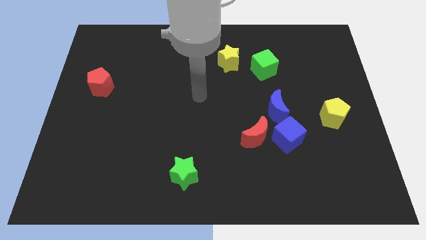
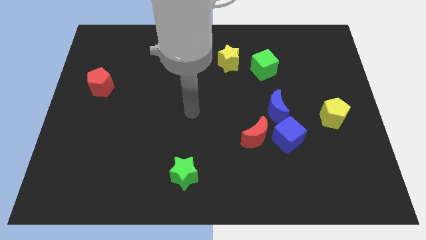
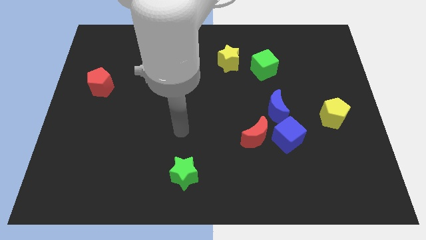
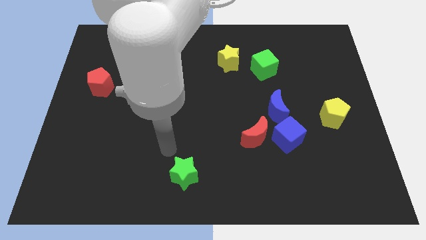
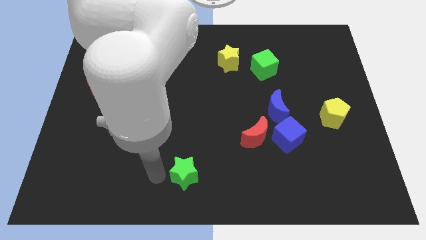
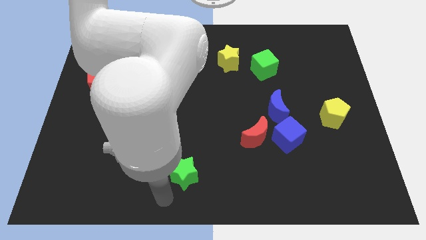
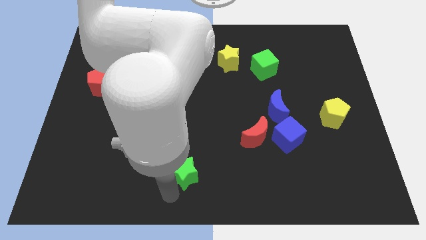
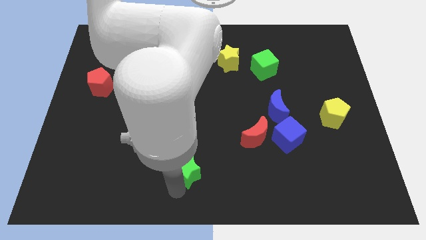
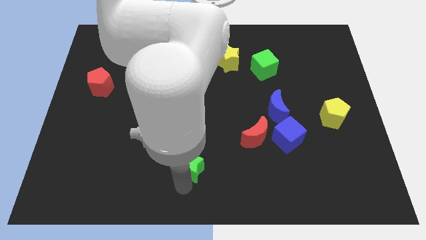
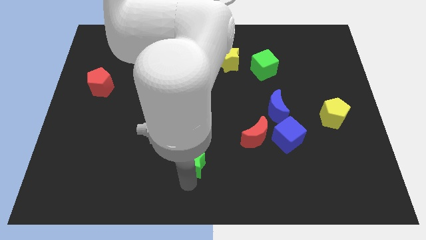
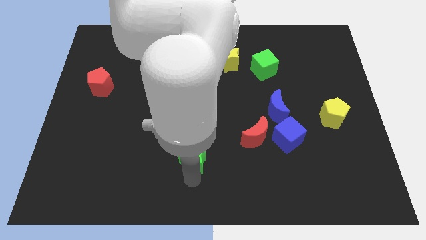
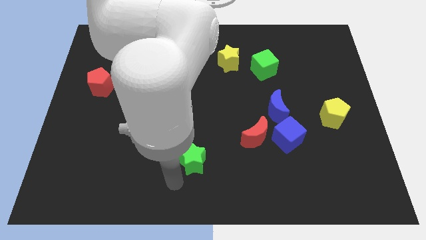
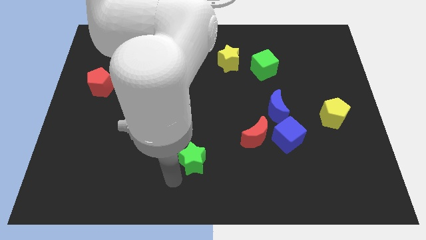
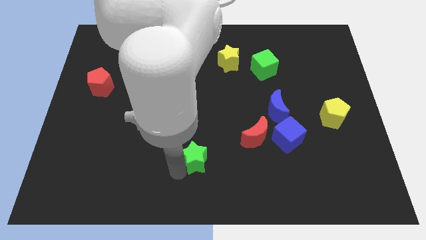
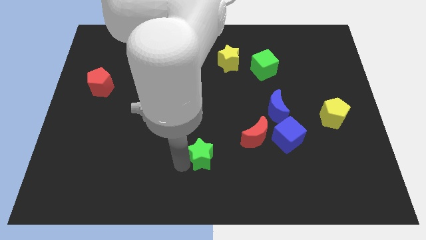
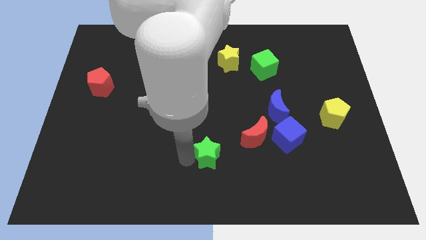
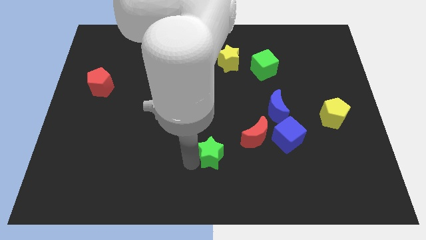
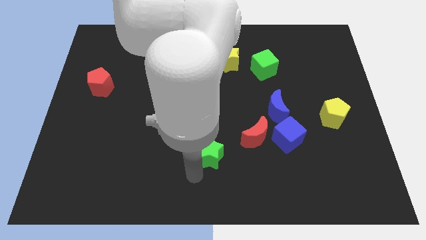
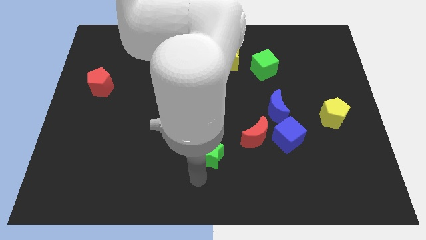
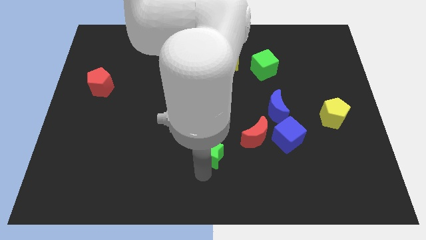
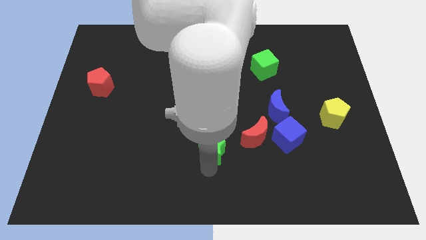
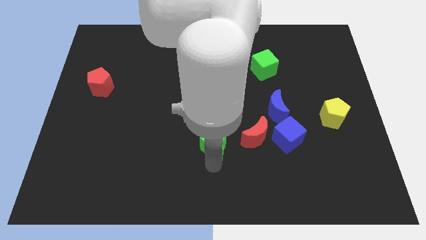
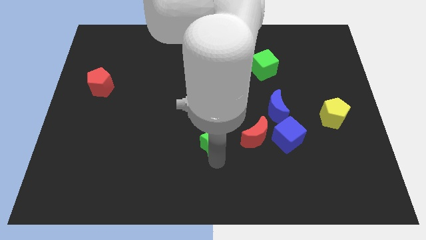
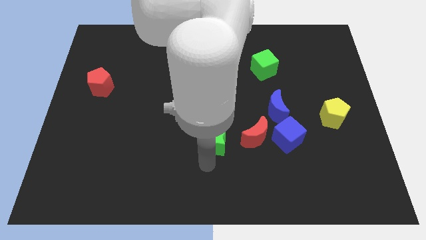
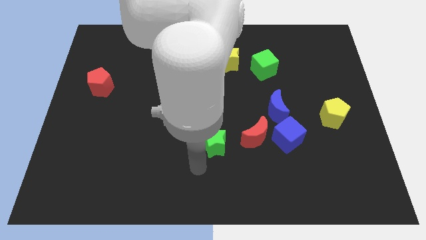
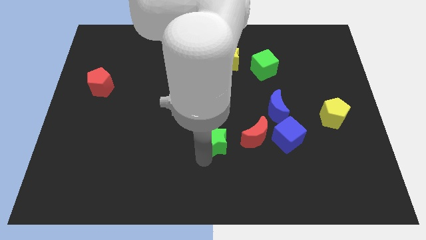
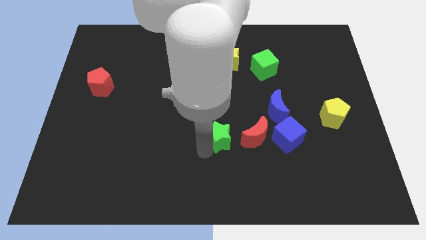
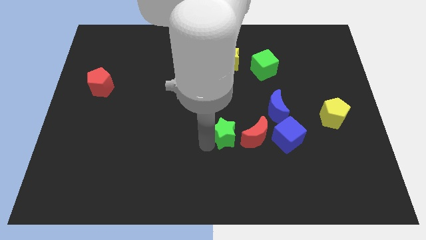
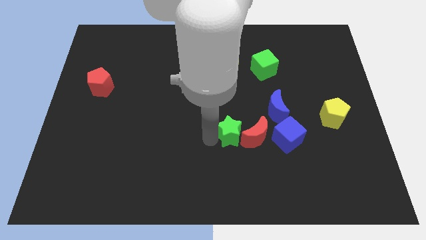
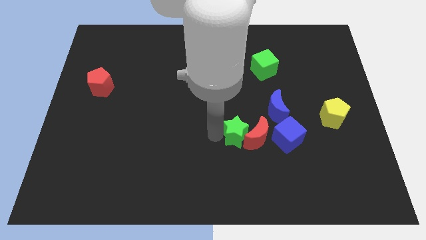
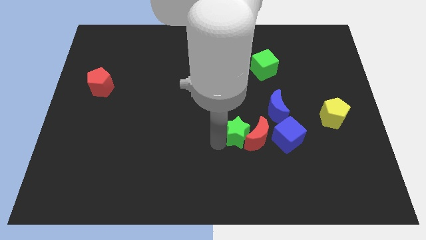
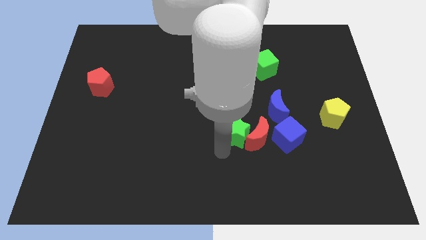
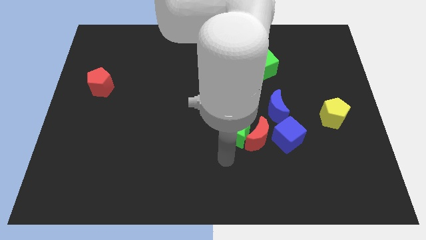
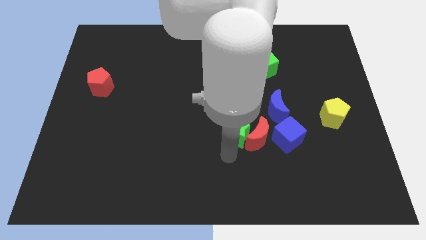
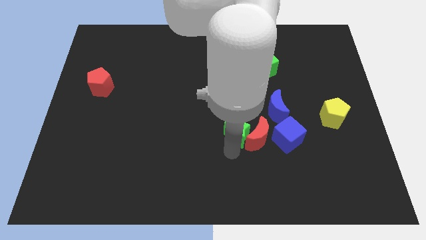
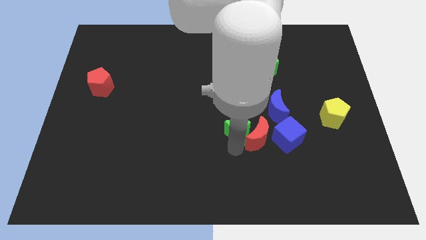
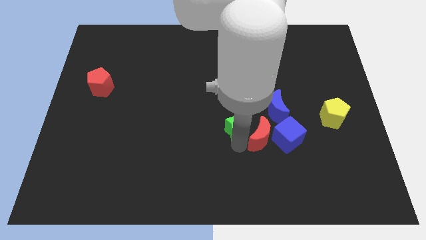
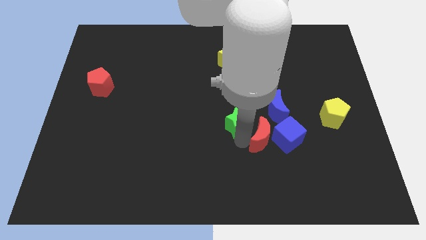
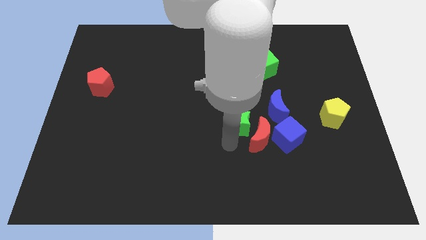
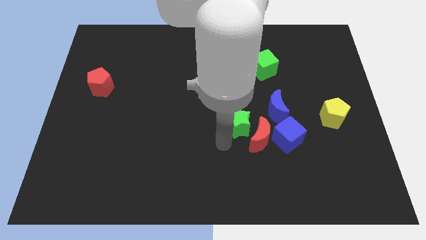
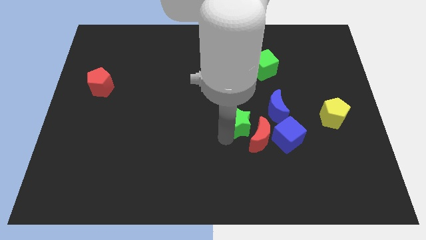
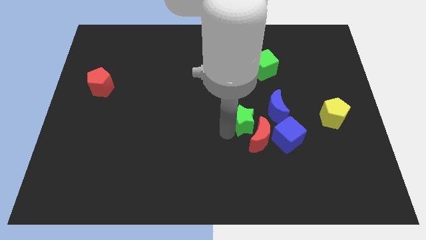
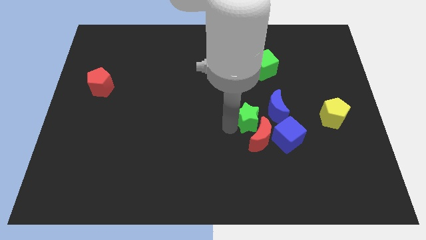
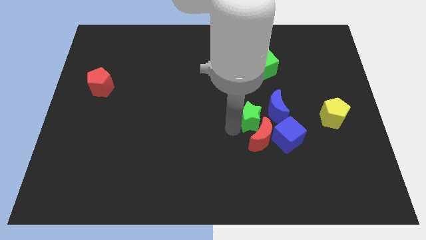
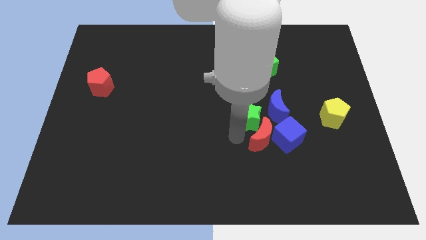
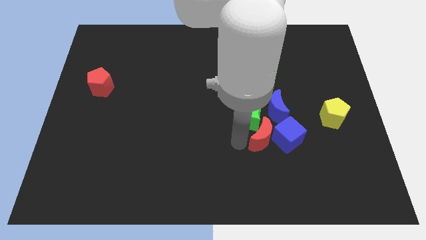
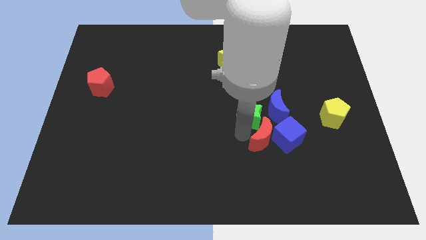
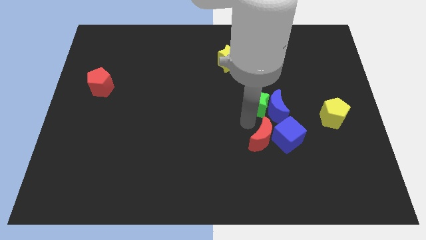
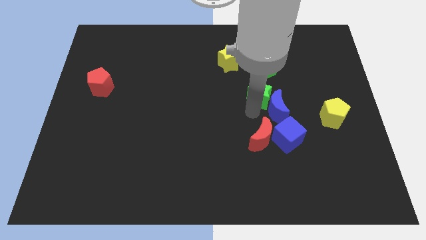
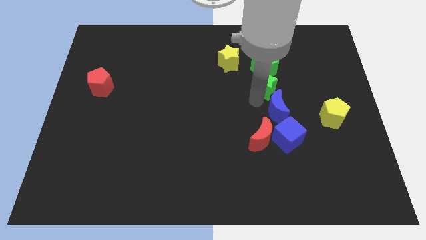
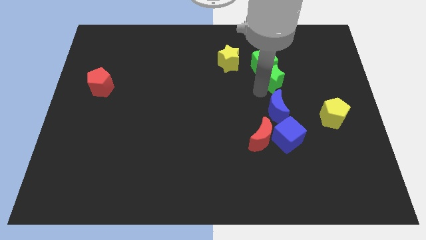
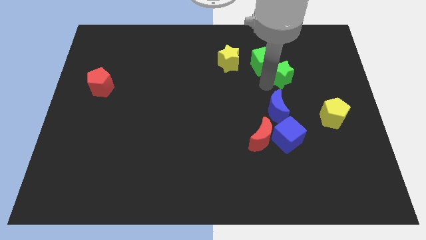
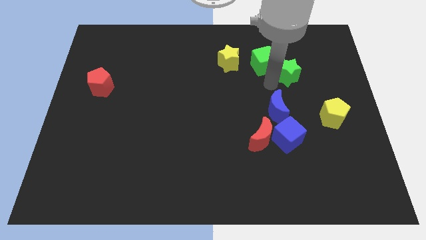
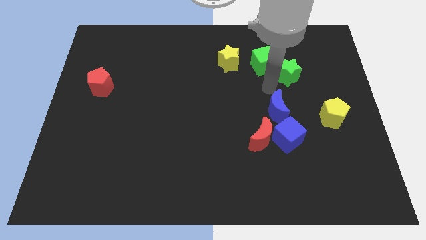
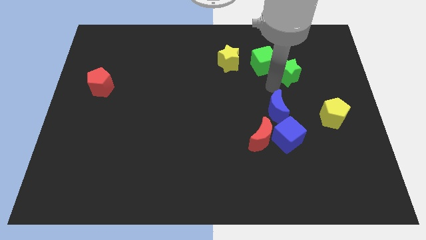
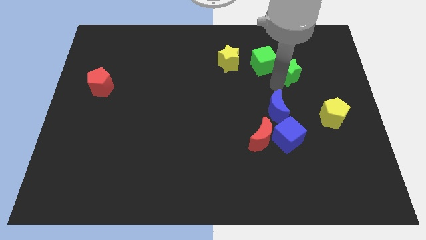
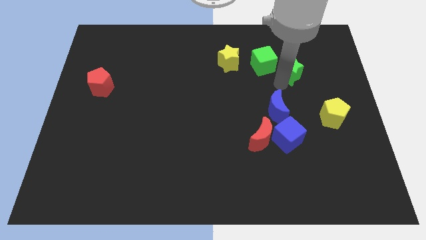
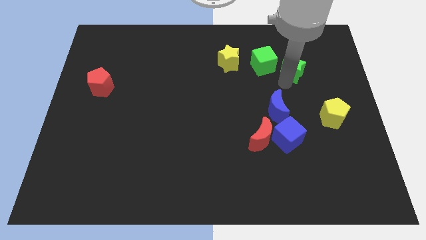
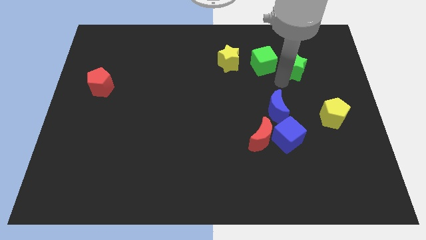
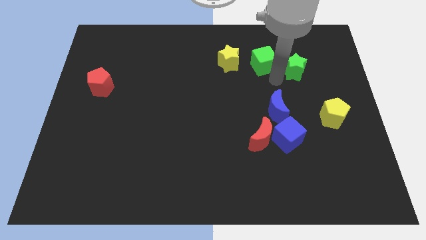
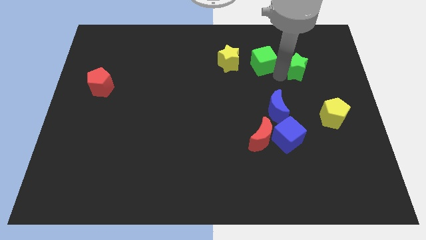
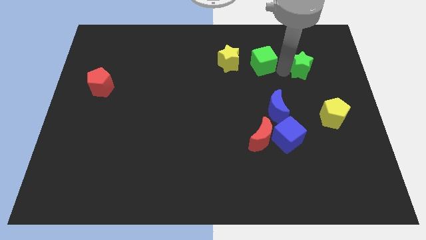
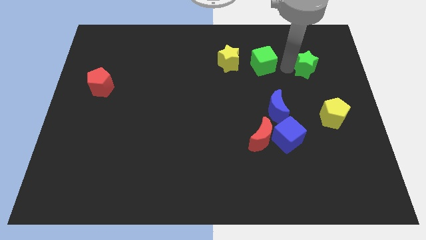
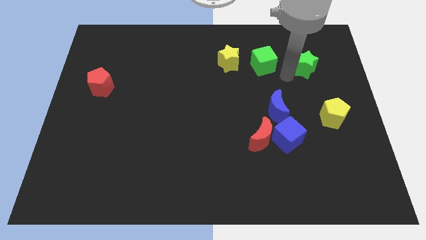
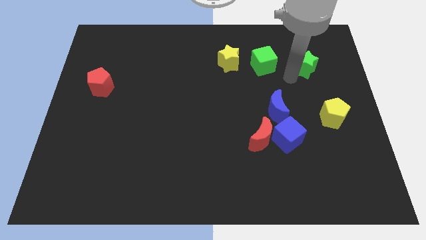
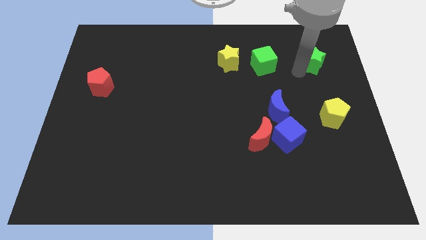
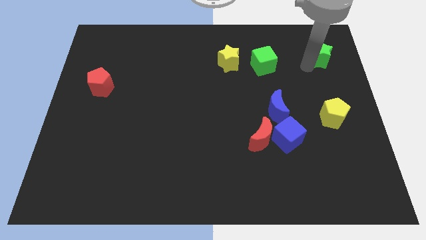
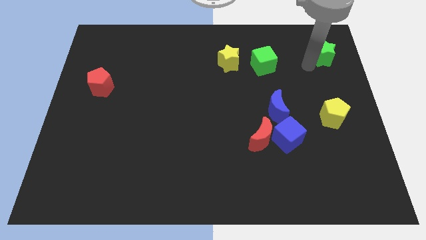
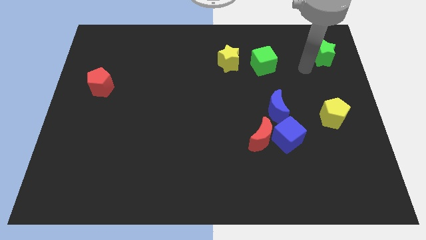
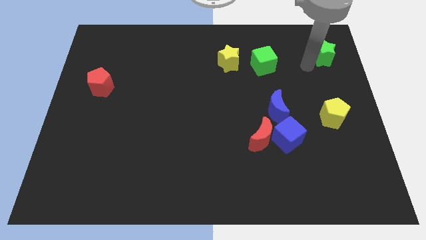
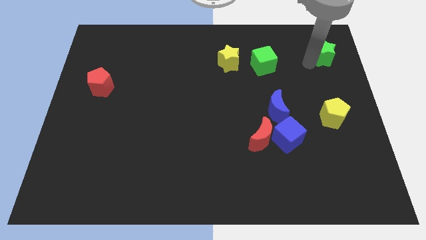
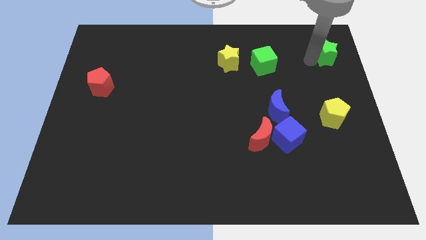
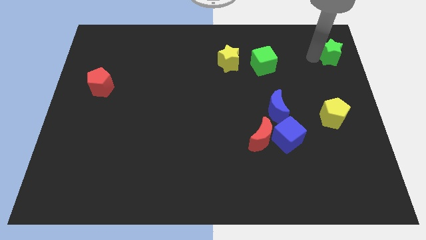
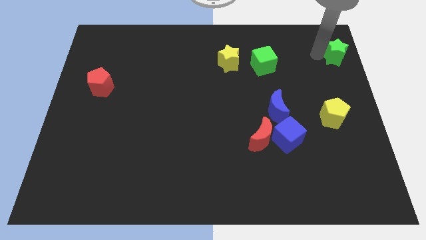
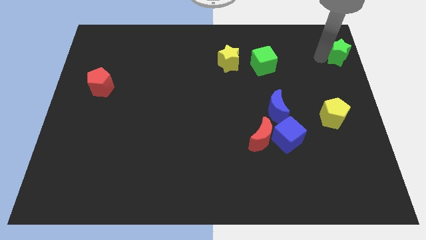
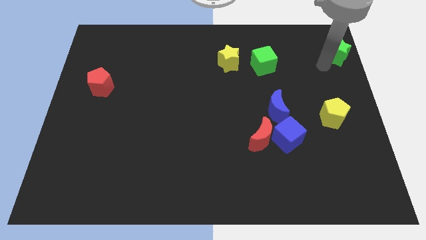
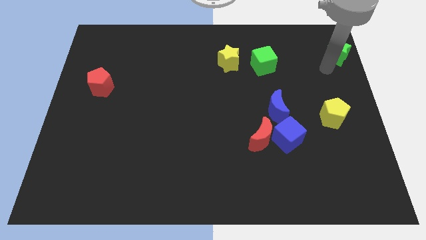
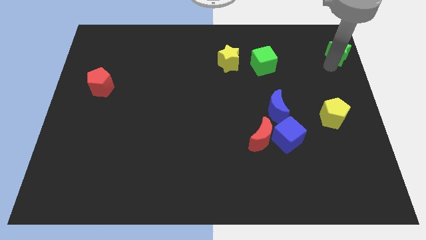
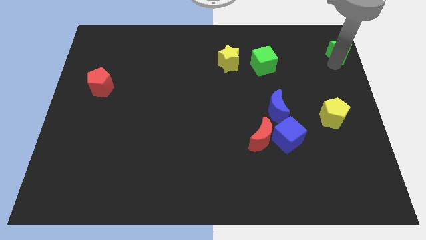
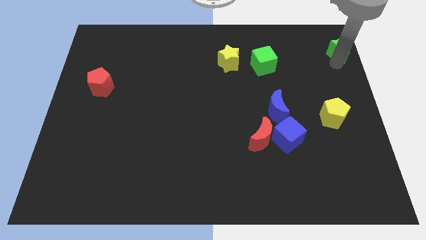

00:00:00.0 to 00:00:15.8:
put the green star to the upper right corner
